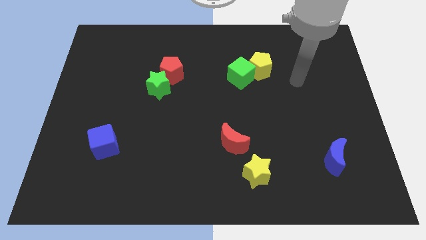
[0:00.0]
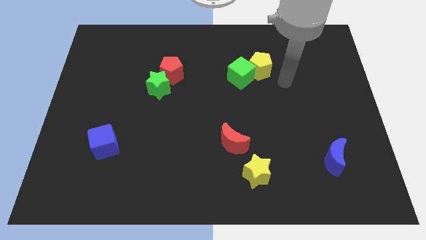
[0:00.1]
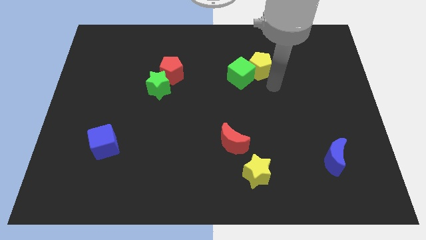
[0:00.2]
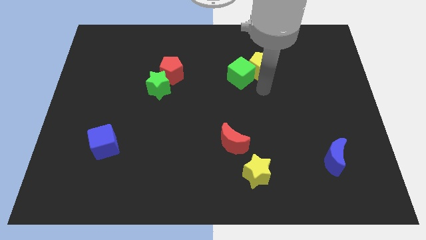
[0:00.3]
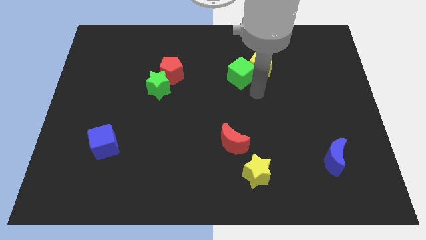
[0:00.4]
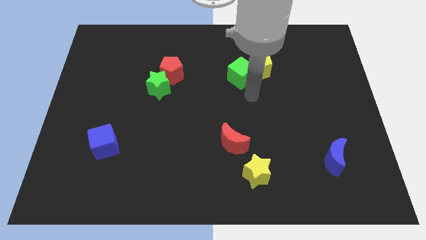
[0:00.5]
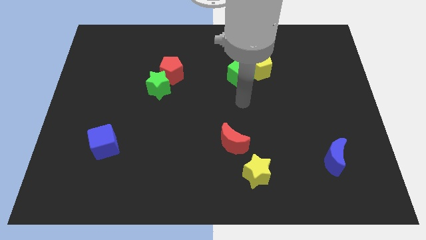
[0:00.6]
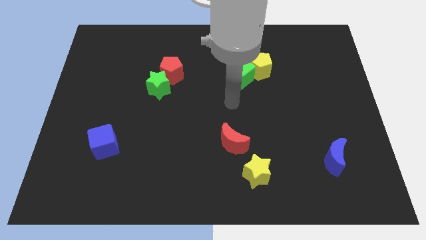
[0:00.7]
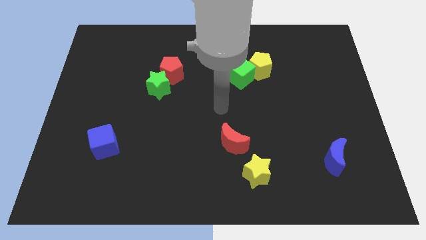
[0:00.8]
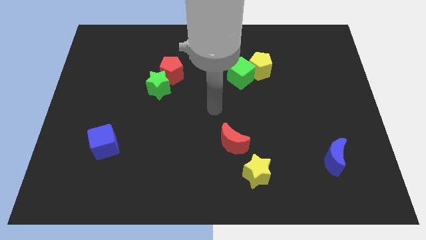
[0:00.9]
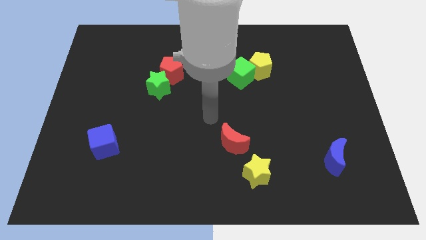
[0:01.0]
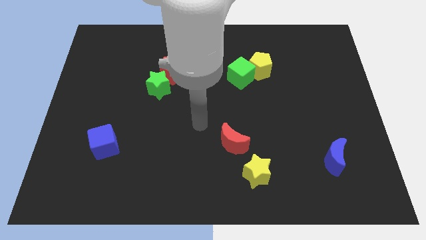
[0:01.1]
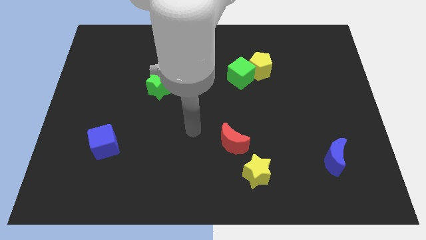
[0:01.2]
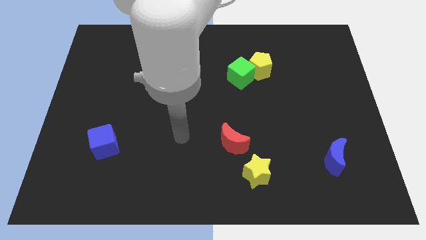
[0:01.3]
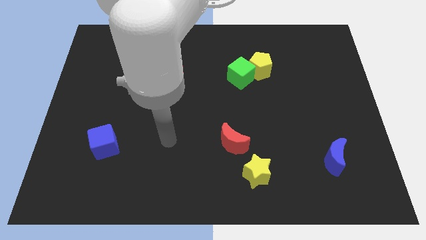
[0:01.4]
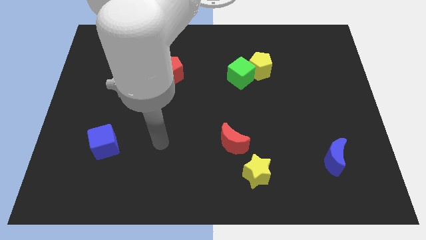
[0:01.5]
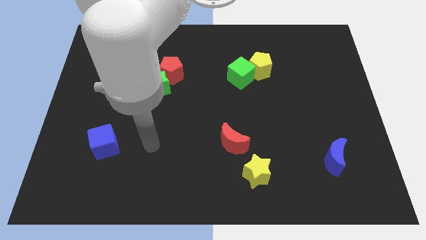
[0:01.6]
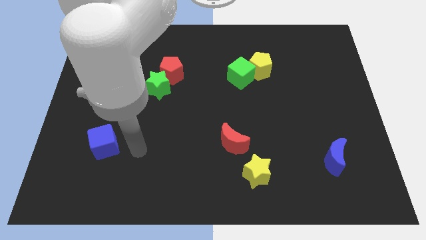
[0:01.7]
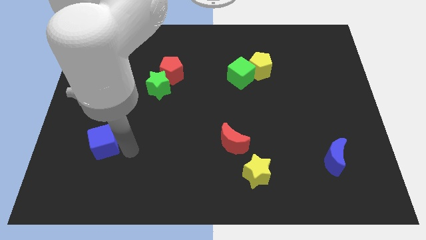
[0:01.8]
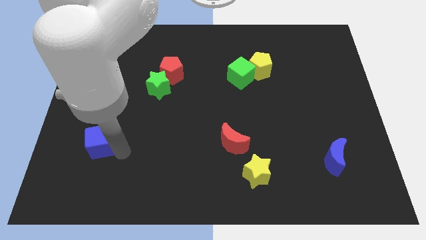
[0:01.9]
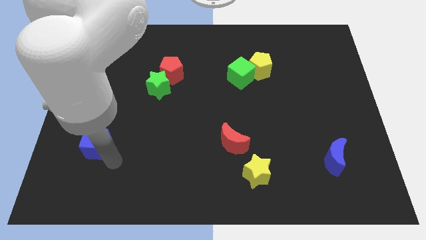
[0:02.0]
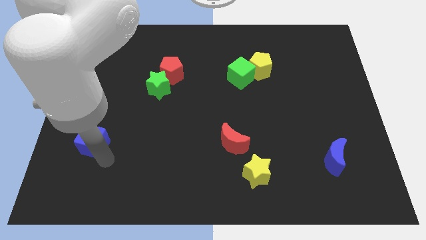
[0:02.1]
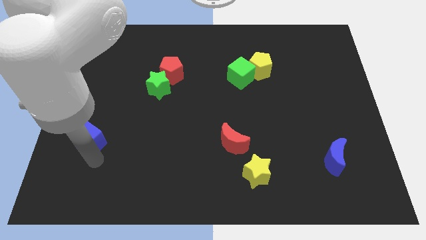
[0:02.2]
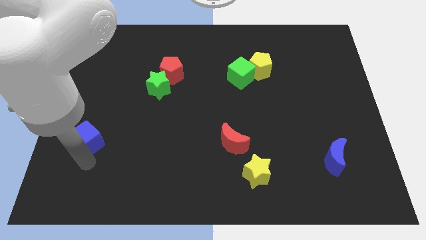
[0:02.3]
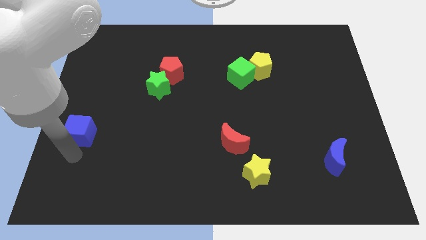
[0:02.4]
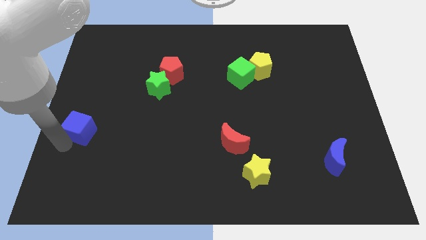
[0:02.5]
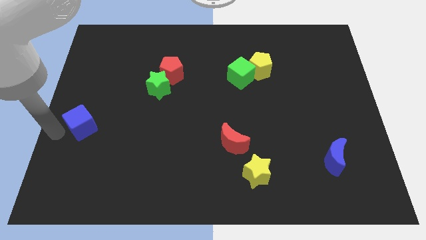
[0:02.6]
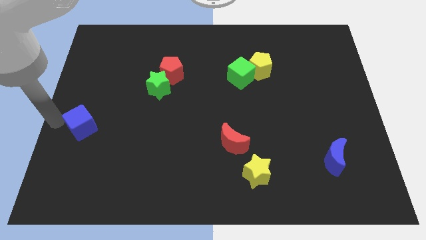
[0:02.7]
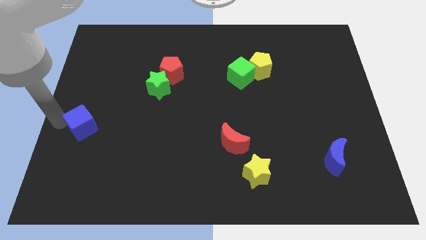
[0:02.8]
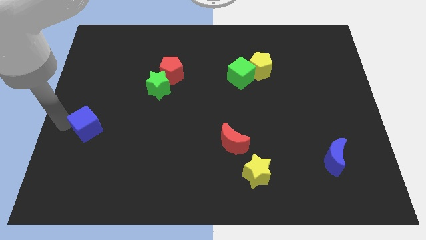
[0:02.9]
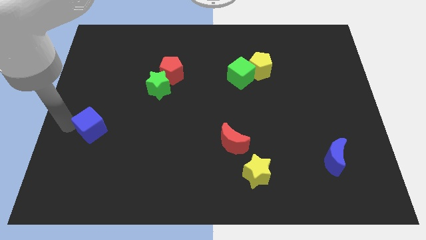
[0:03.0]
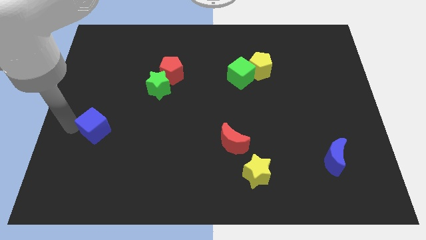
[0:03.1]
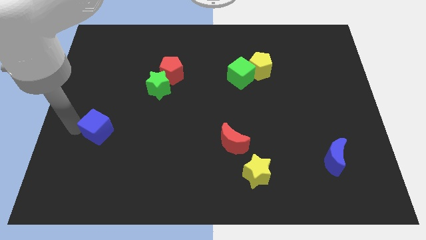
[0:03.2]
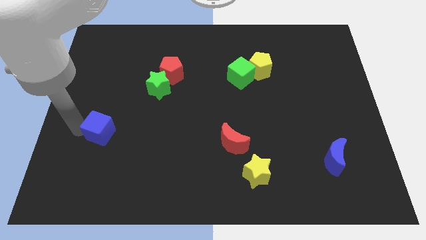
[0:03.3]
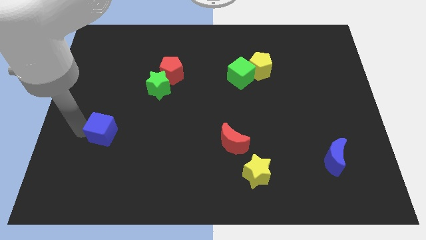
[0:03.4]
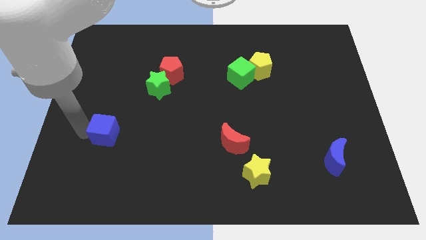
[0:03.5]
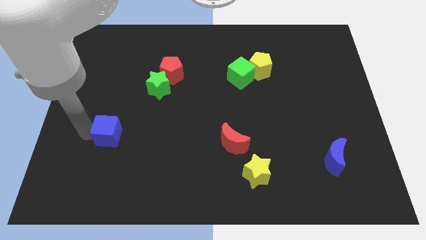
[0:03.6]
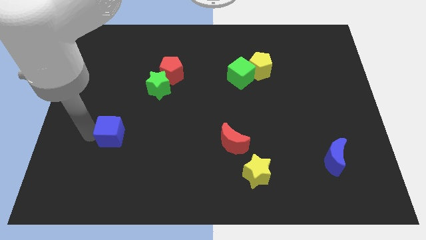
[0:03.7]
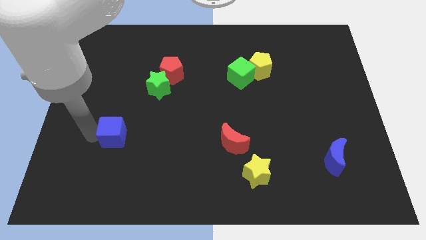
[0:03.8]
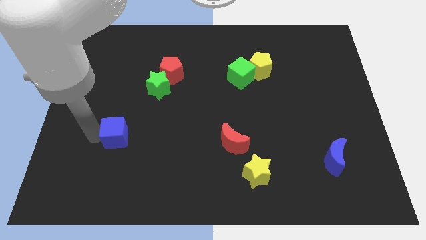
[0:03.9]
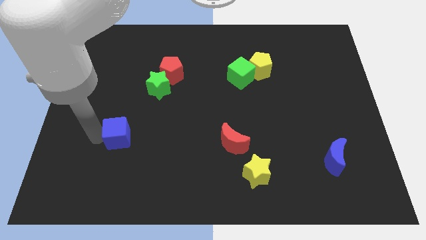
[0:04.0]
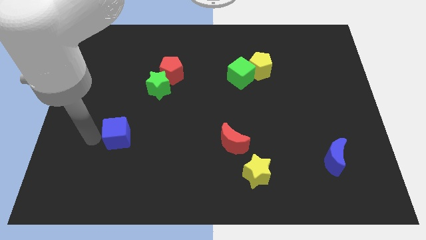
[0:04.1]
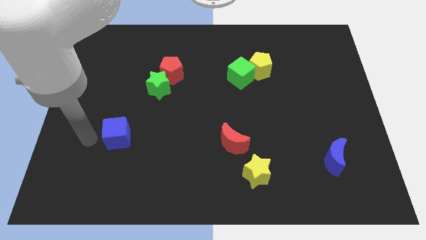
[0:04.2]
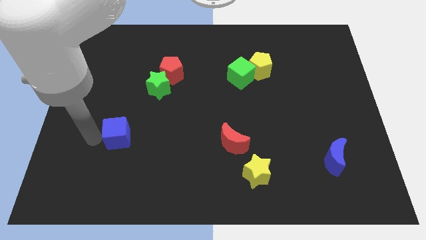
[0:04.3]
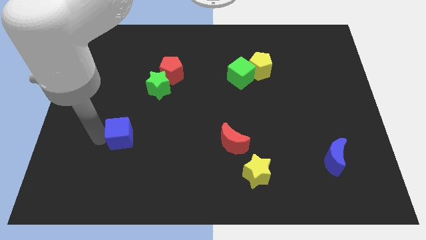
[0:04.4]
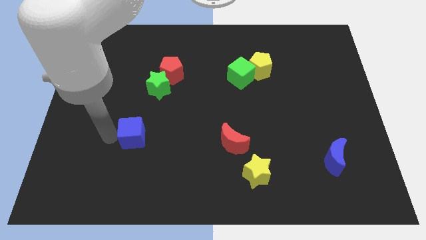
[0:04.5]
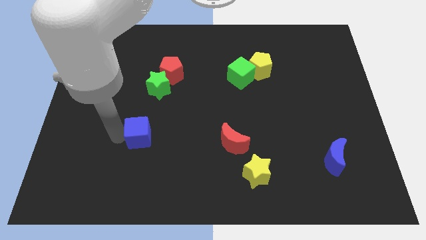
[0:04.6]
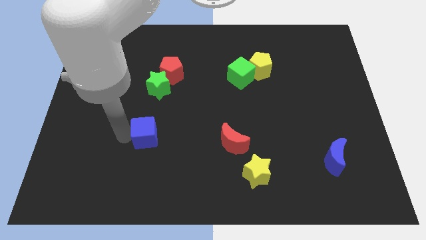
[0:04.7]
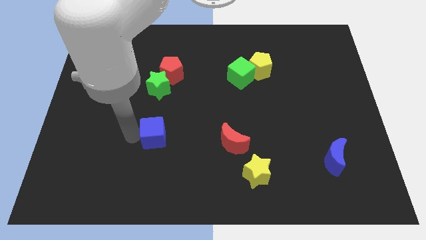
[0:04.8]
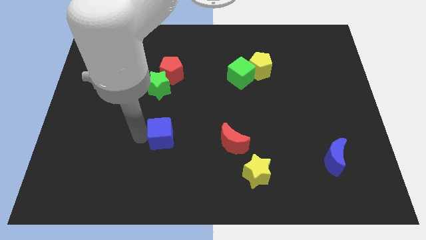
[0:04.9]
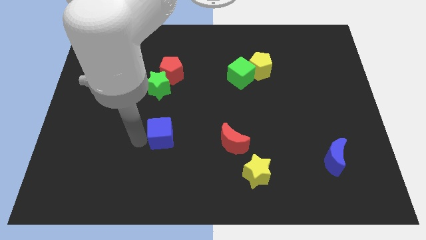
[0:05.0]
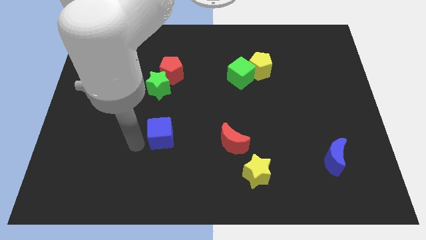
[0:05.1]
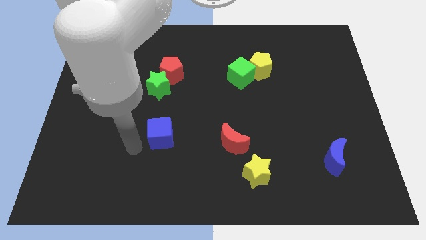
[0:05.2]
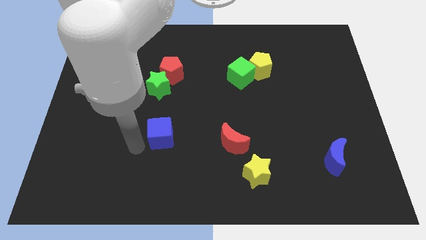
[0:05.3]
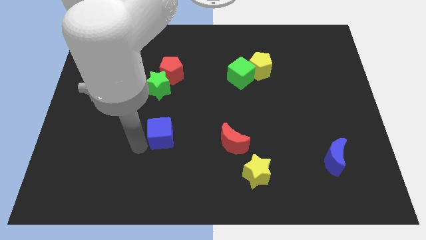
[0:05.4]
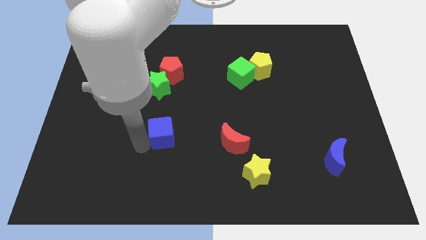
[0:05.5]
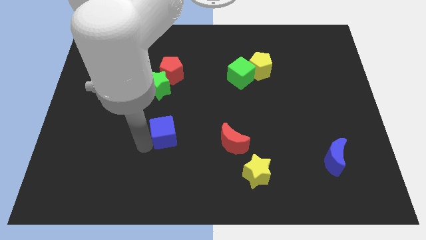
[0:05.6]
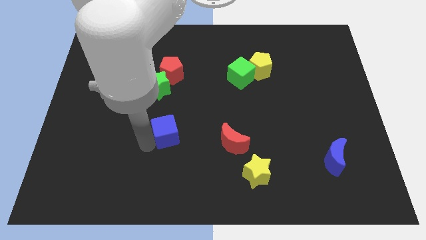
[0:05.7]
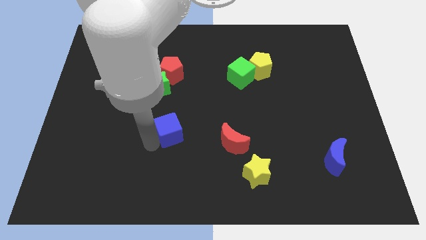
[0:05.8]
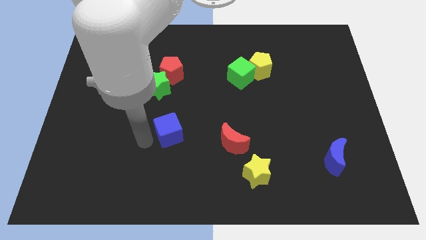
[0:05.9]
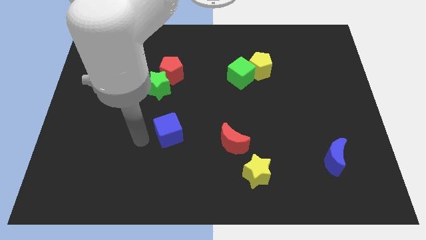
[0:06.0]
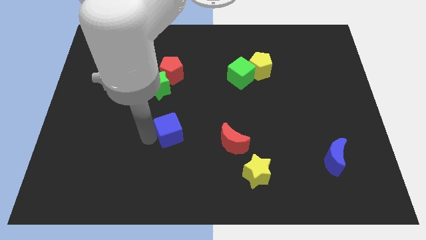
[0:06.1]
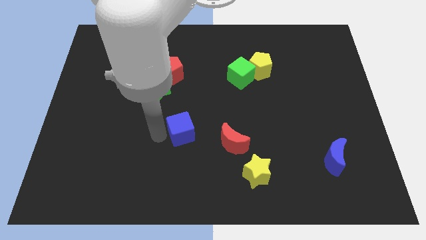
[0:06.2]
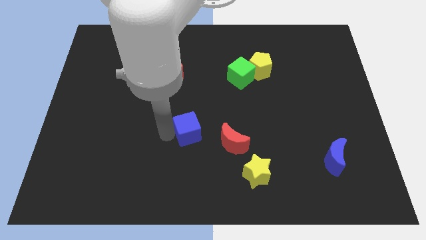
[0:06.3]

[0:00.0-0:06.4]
move the blue cube to the top left of the red moon
